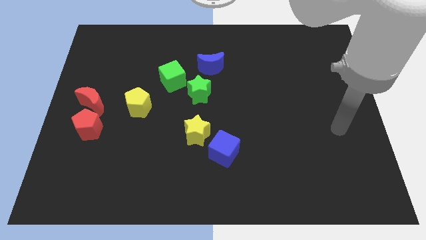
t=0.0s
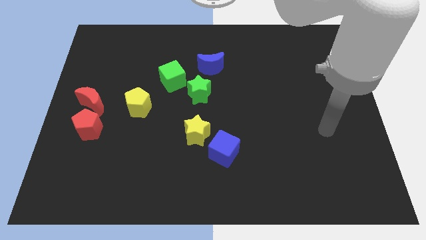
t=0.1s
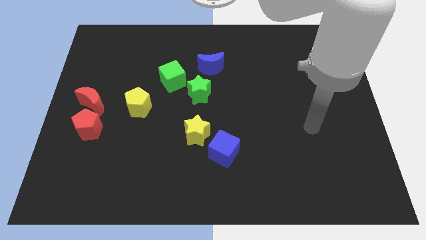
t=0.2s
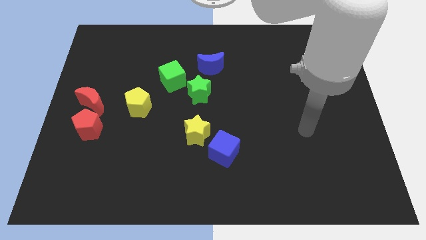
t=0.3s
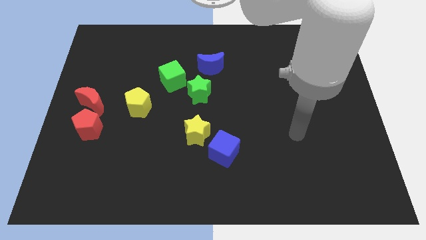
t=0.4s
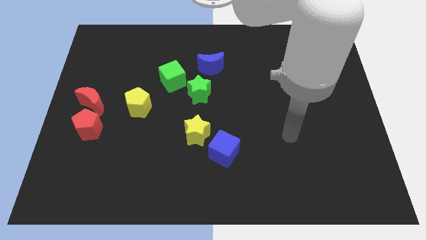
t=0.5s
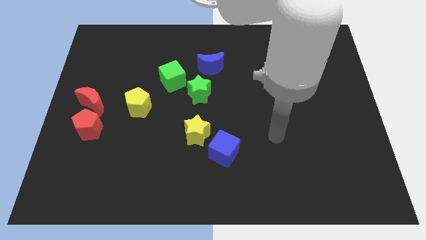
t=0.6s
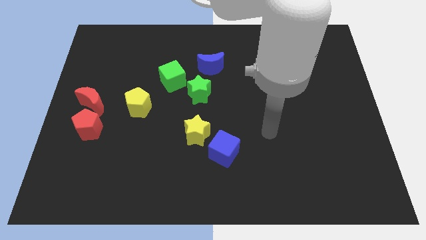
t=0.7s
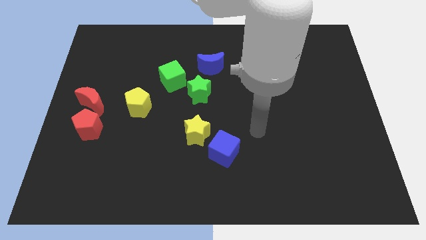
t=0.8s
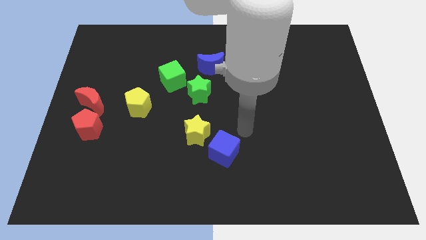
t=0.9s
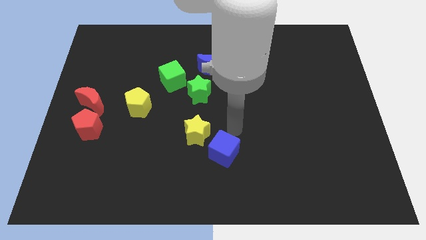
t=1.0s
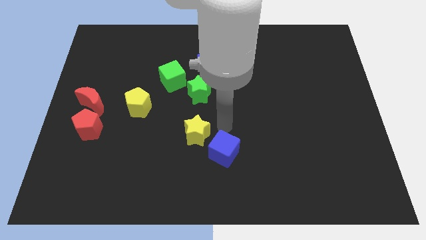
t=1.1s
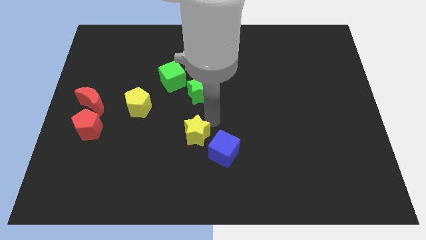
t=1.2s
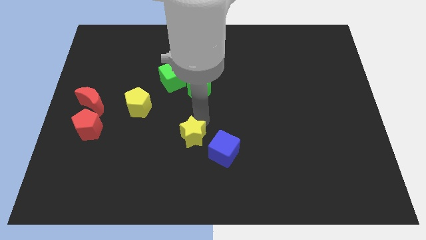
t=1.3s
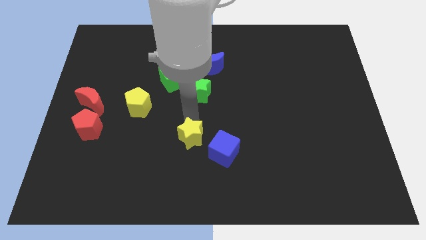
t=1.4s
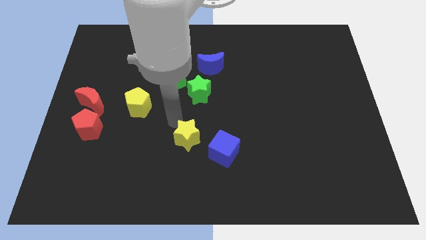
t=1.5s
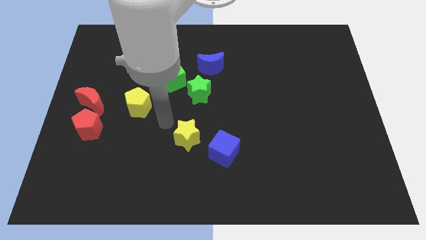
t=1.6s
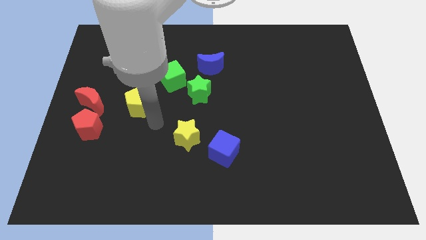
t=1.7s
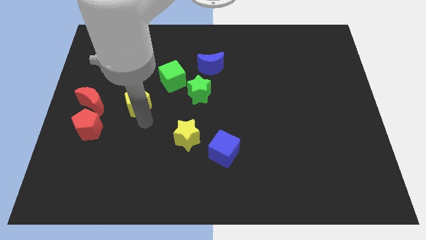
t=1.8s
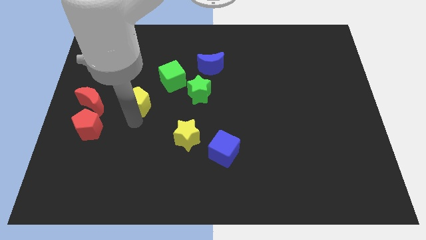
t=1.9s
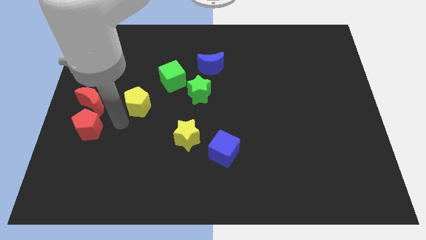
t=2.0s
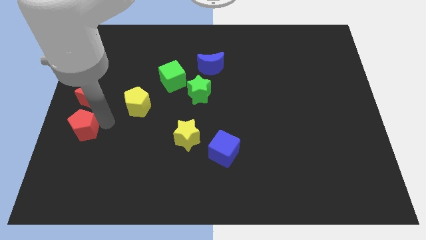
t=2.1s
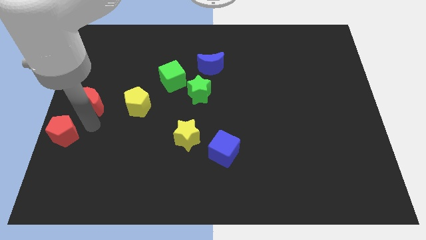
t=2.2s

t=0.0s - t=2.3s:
move the red moon away from the red pentagon

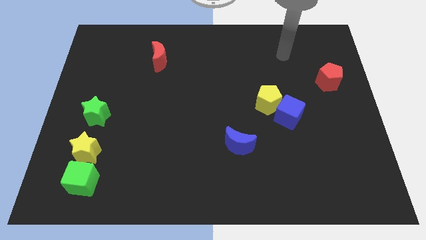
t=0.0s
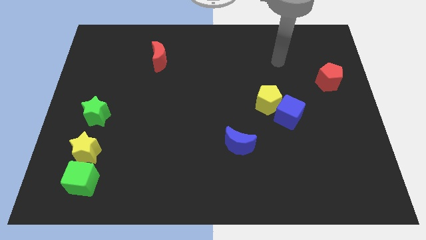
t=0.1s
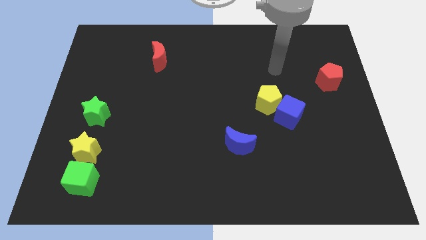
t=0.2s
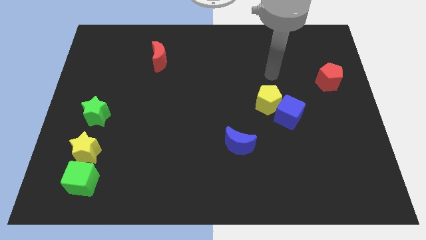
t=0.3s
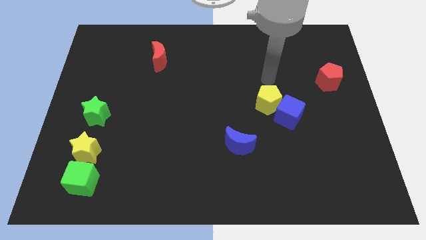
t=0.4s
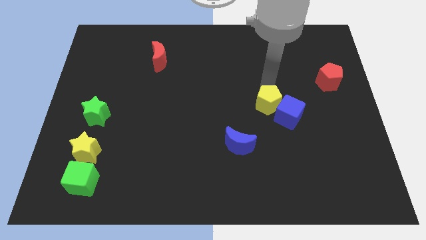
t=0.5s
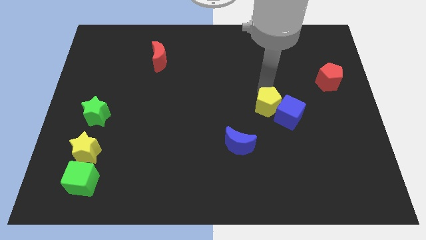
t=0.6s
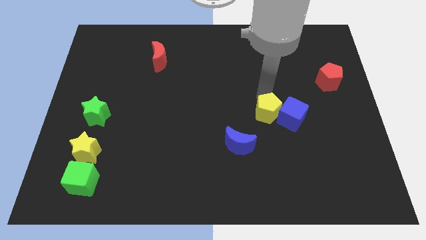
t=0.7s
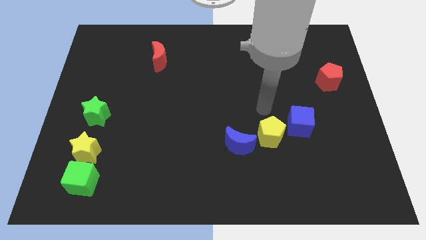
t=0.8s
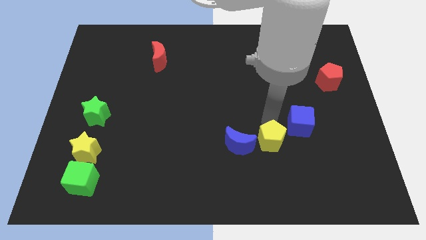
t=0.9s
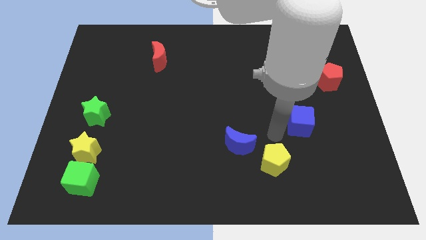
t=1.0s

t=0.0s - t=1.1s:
move the blue cube away from the yellow pentagon

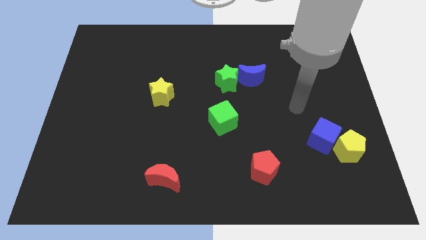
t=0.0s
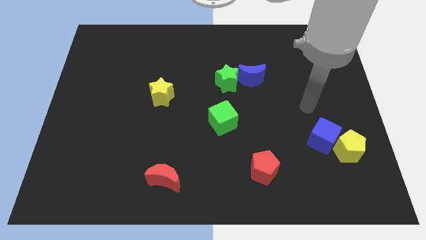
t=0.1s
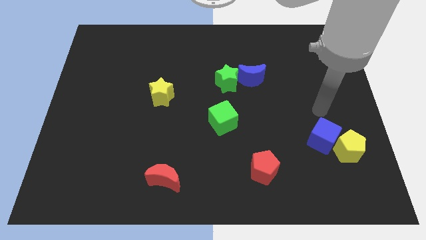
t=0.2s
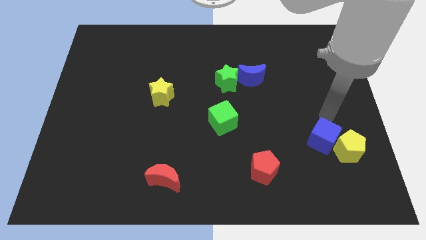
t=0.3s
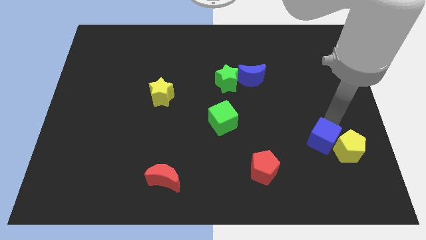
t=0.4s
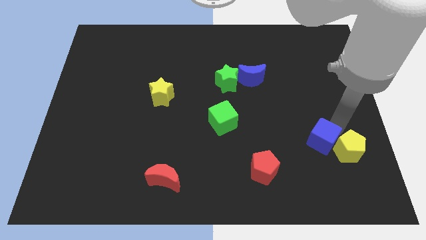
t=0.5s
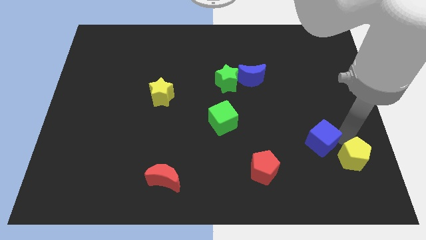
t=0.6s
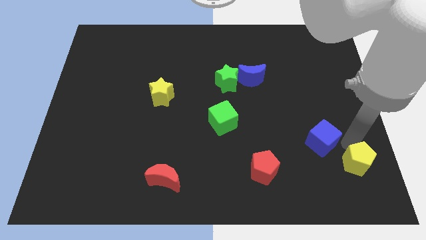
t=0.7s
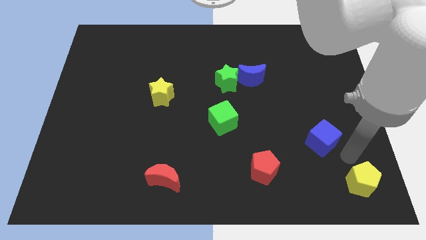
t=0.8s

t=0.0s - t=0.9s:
separate the blue cube from the yellow pentagon

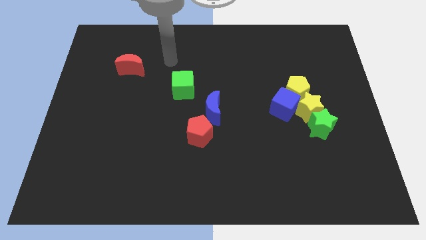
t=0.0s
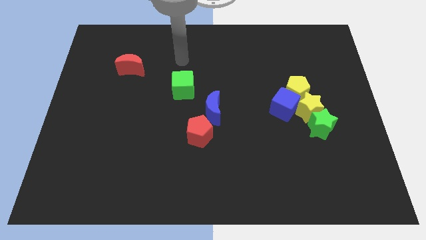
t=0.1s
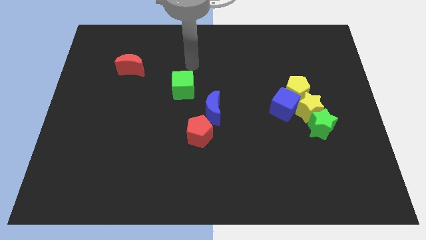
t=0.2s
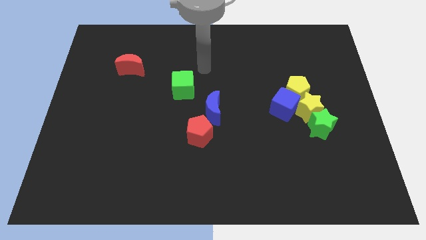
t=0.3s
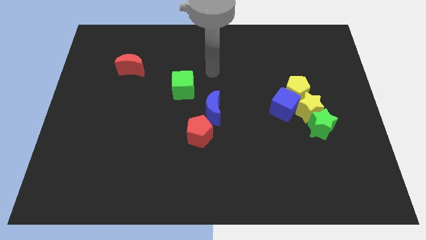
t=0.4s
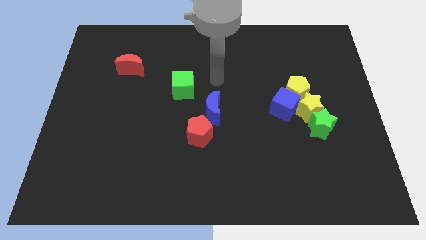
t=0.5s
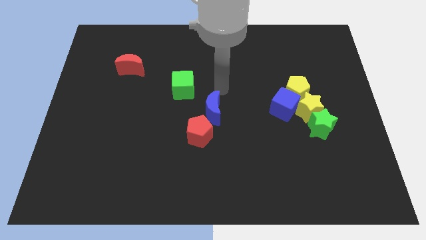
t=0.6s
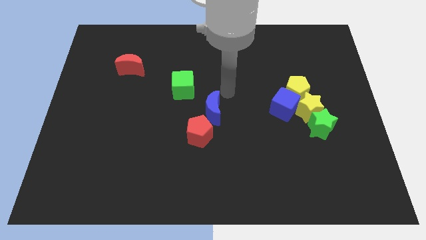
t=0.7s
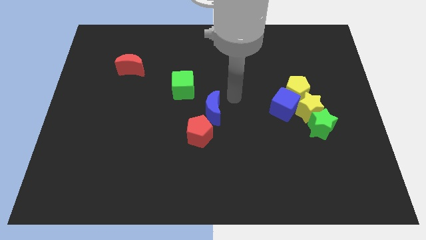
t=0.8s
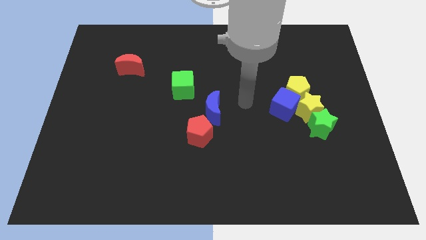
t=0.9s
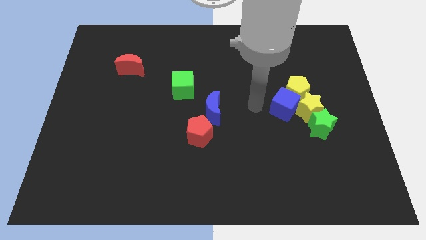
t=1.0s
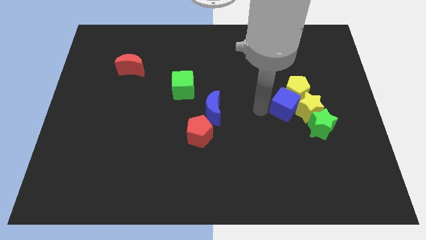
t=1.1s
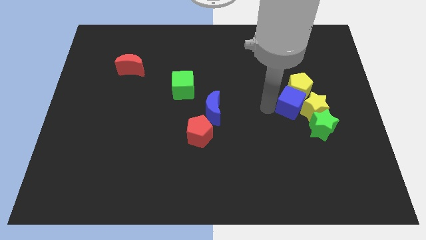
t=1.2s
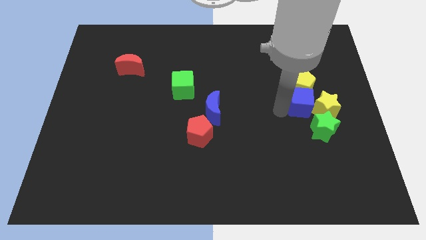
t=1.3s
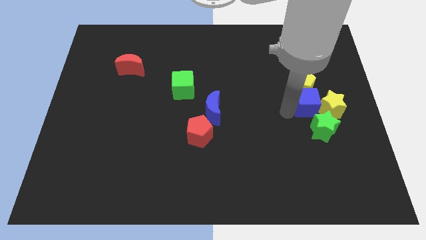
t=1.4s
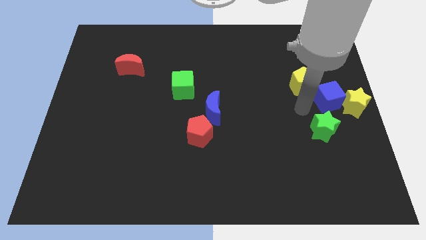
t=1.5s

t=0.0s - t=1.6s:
separate the yellow pentagon from the blue cube and yellow star

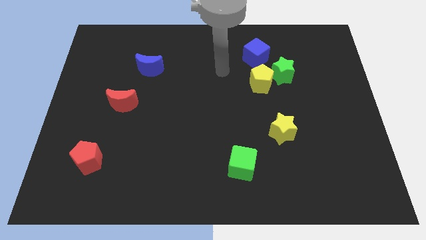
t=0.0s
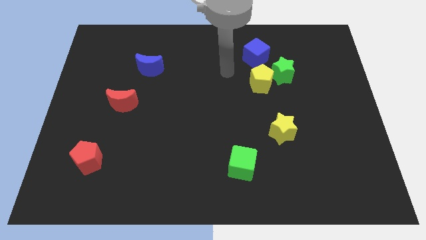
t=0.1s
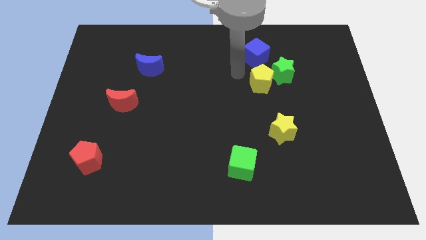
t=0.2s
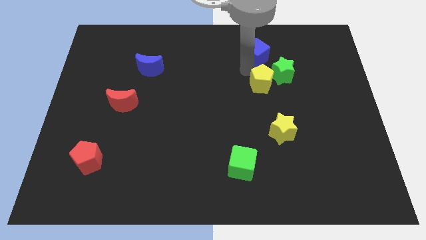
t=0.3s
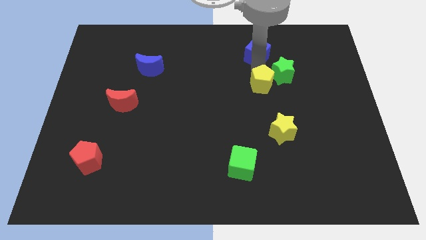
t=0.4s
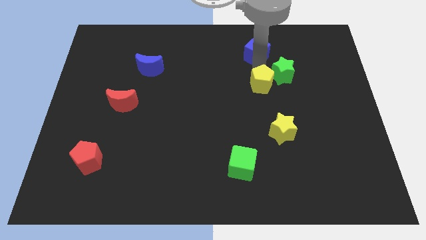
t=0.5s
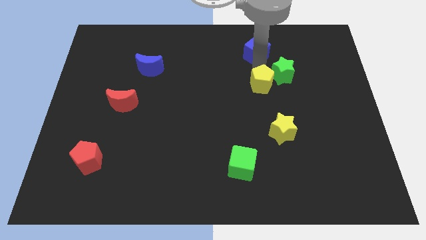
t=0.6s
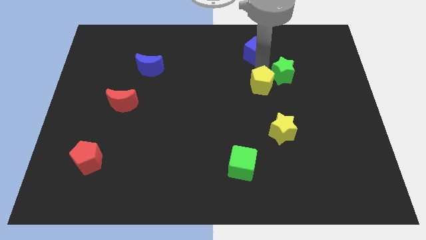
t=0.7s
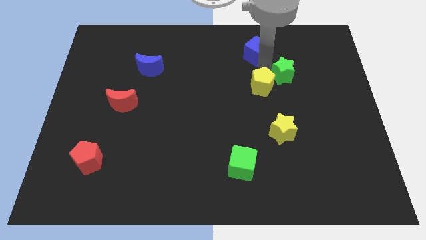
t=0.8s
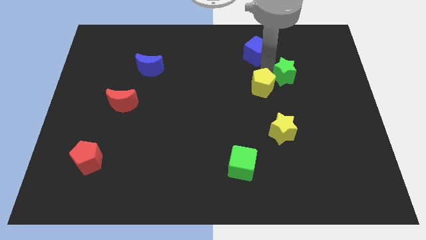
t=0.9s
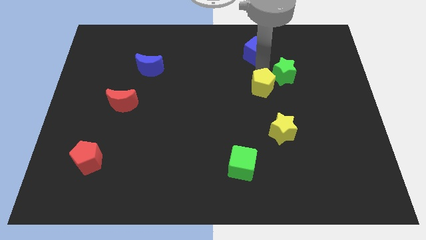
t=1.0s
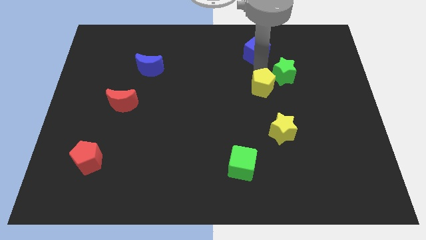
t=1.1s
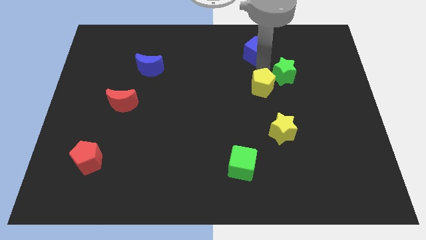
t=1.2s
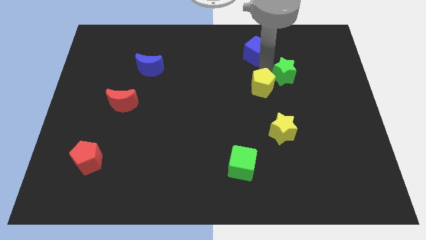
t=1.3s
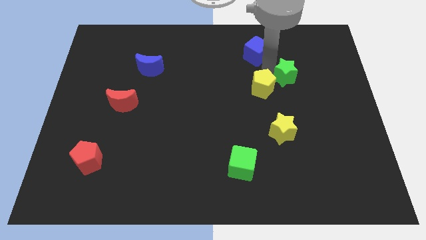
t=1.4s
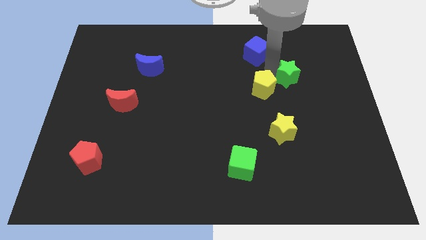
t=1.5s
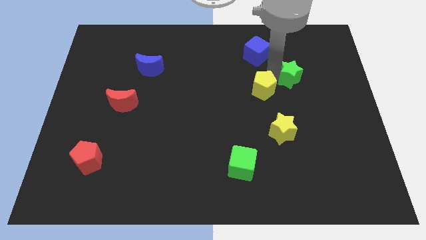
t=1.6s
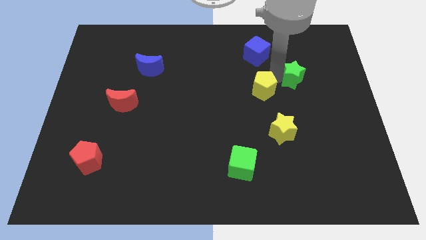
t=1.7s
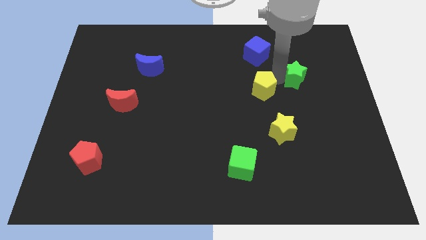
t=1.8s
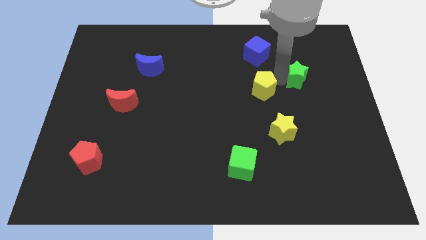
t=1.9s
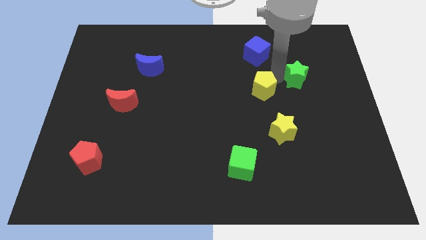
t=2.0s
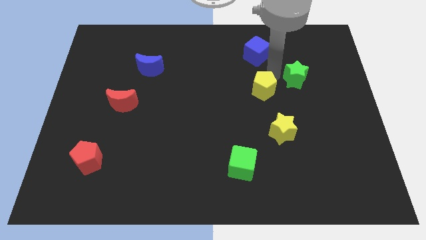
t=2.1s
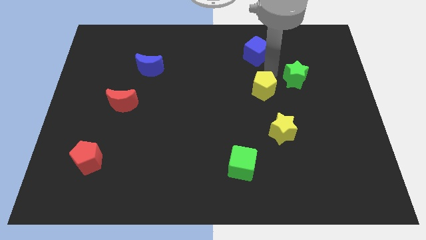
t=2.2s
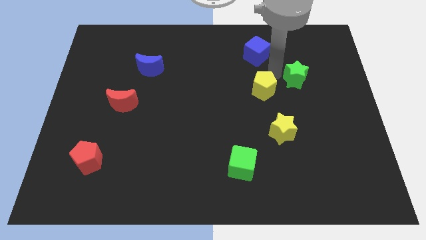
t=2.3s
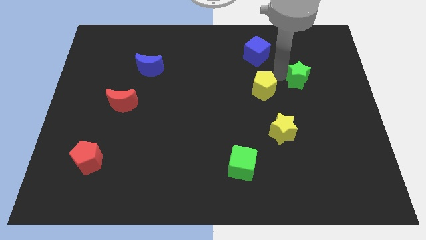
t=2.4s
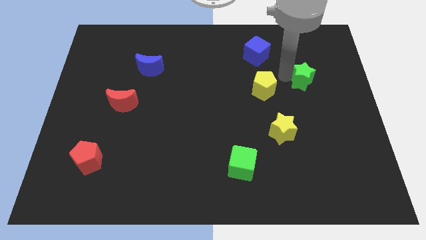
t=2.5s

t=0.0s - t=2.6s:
separate the green star from the yellow pentagon and blue cube

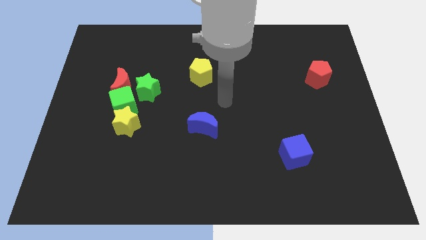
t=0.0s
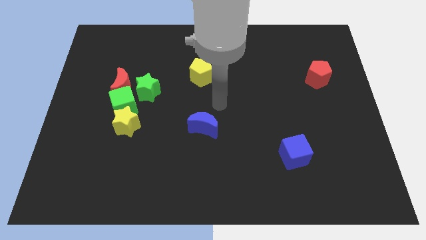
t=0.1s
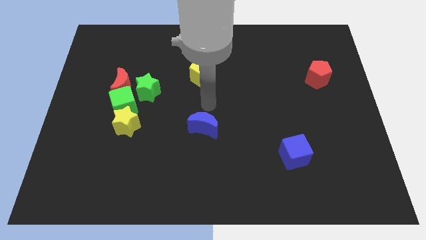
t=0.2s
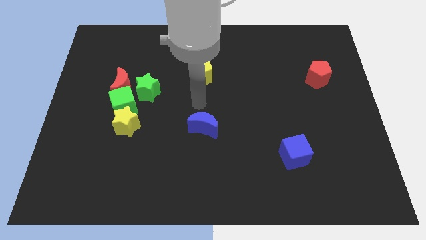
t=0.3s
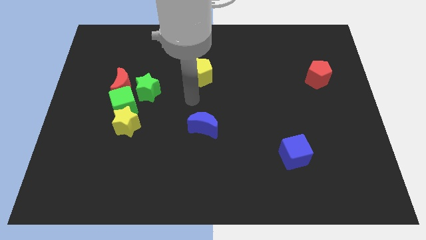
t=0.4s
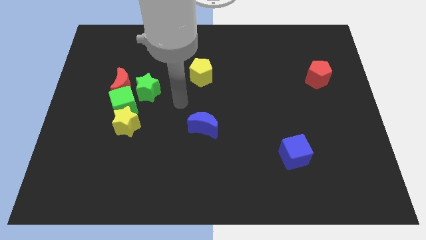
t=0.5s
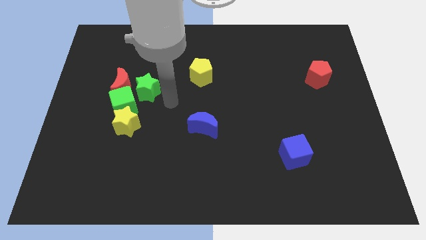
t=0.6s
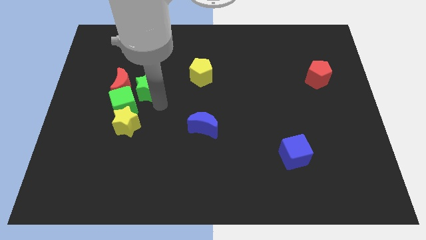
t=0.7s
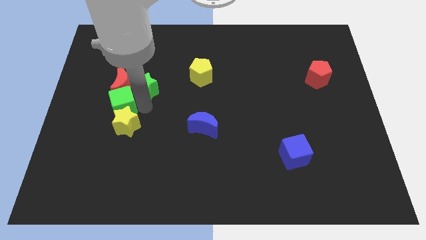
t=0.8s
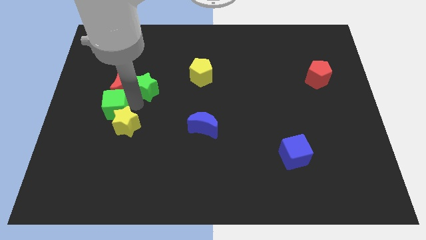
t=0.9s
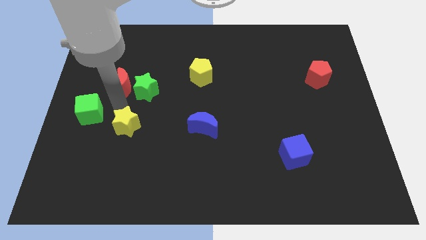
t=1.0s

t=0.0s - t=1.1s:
separate the yellow star from the green cube
